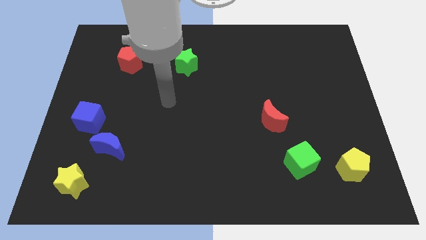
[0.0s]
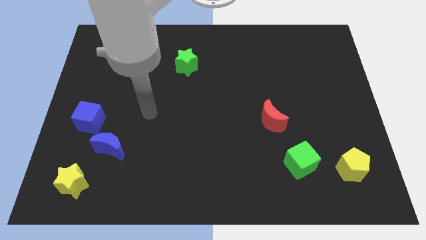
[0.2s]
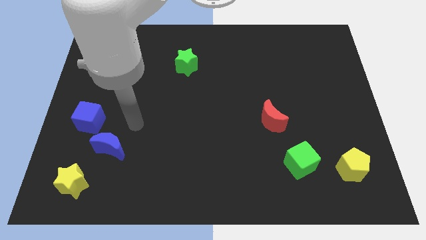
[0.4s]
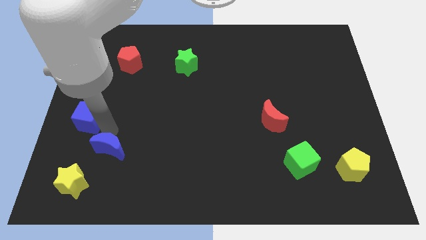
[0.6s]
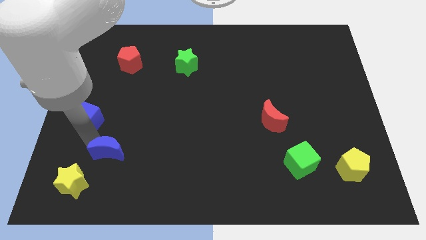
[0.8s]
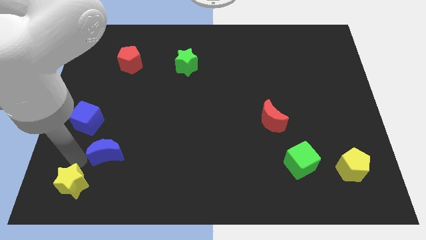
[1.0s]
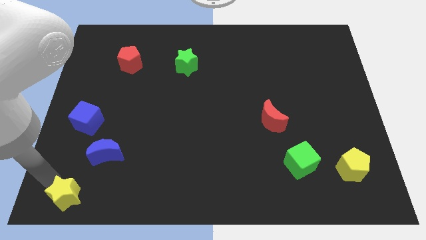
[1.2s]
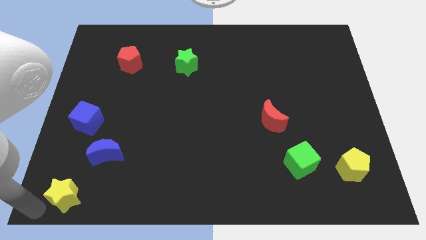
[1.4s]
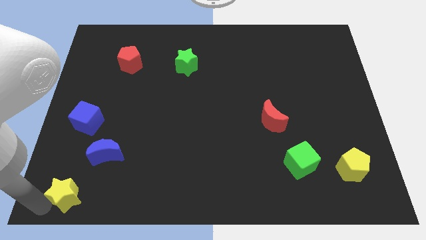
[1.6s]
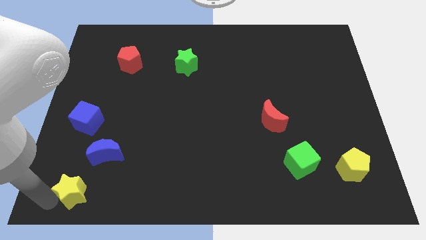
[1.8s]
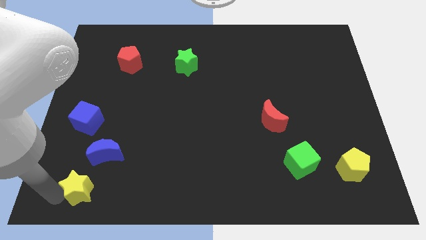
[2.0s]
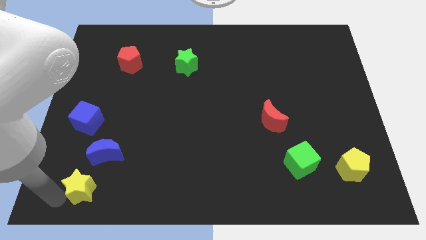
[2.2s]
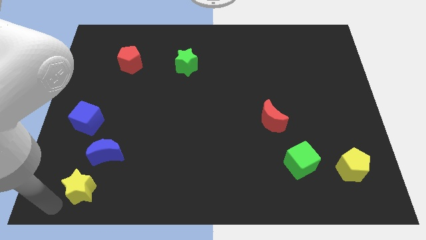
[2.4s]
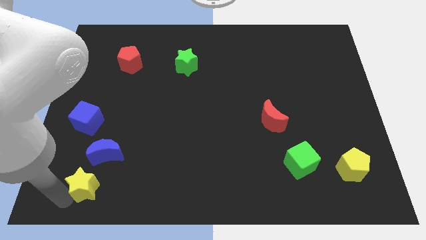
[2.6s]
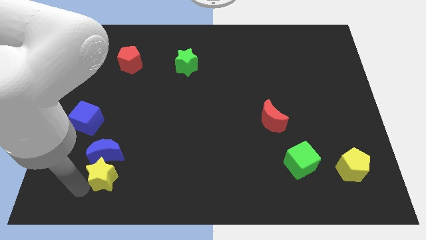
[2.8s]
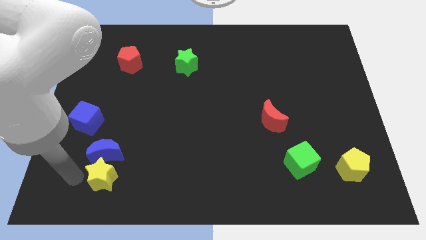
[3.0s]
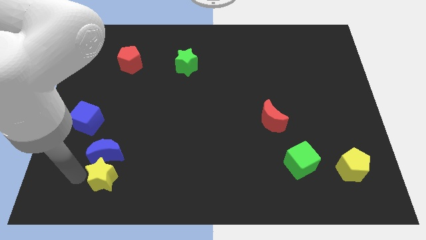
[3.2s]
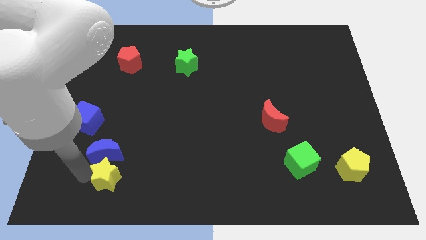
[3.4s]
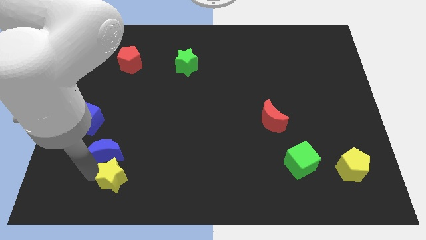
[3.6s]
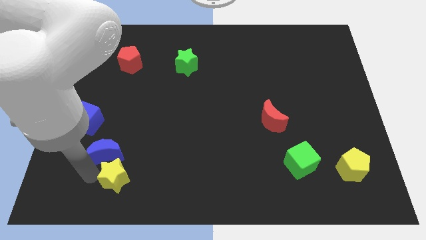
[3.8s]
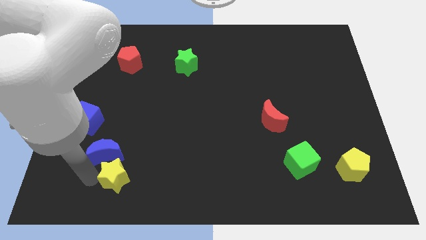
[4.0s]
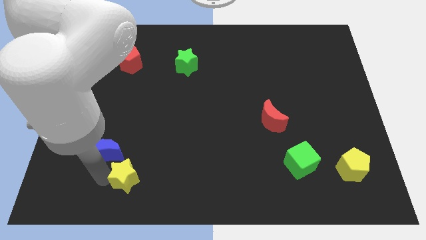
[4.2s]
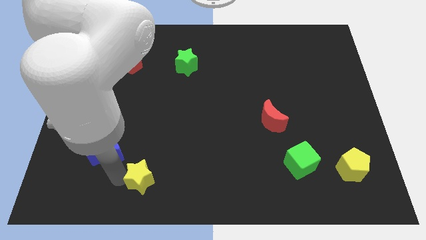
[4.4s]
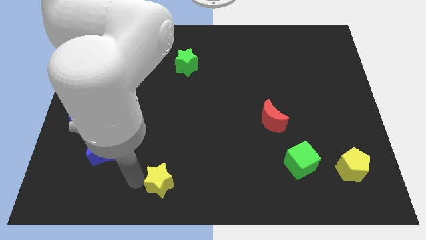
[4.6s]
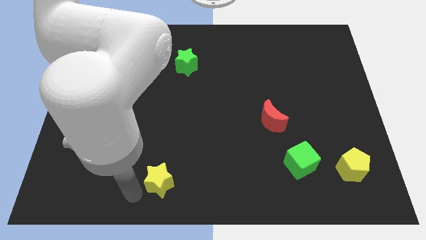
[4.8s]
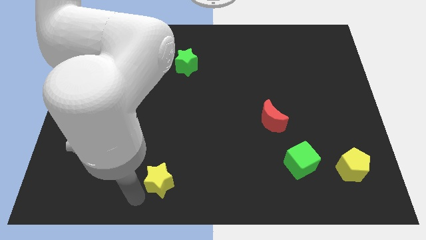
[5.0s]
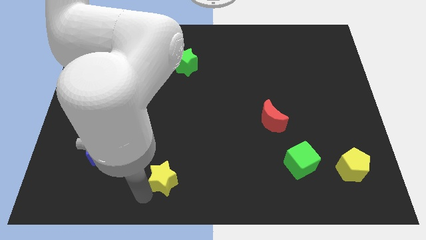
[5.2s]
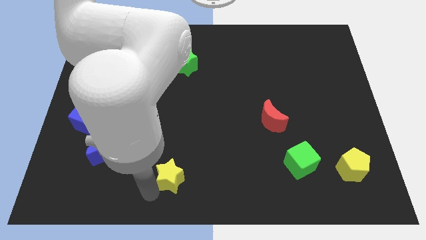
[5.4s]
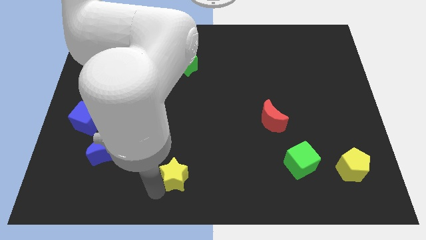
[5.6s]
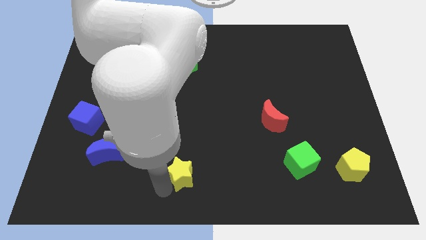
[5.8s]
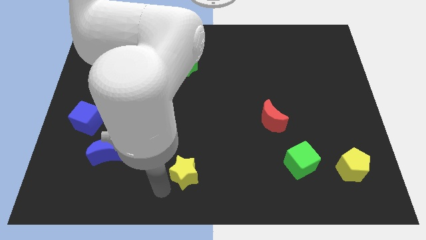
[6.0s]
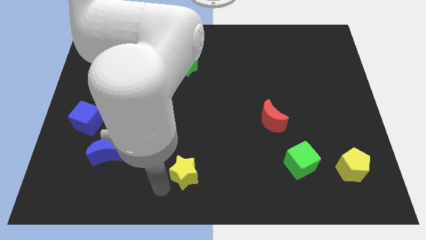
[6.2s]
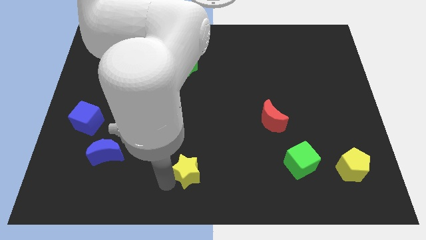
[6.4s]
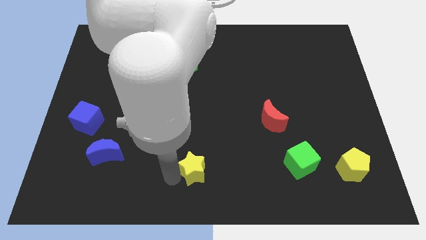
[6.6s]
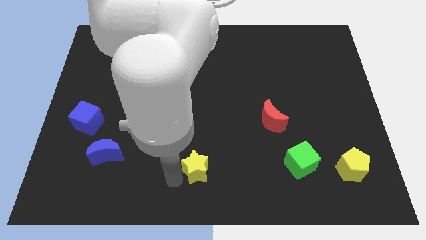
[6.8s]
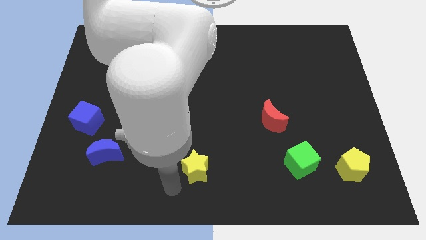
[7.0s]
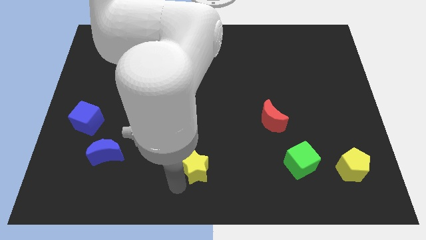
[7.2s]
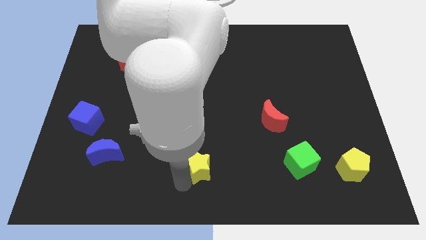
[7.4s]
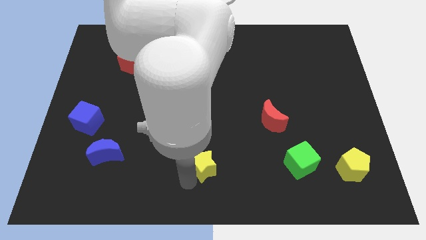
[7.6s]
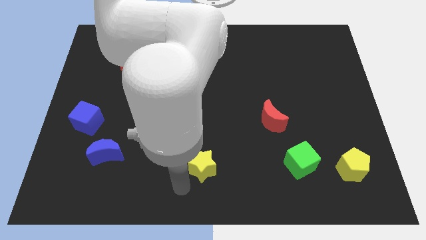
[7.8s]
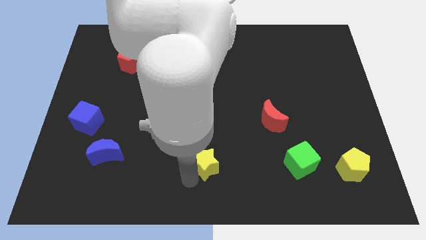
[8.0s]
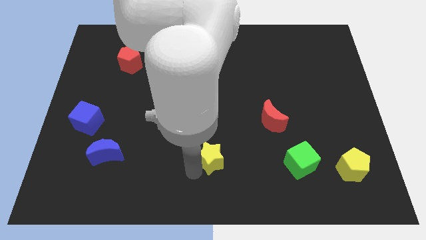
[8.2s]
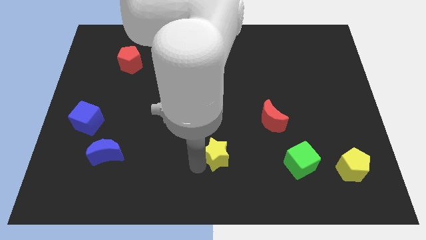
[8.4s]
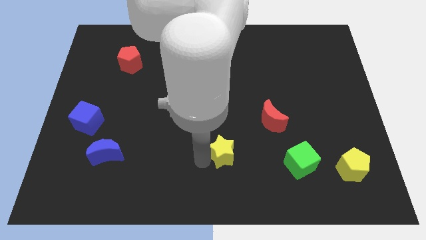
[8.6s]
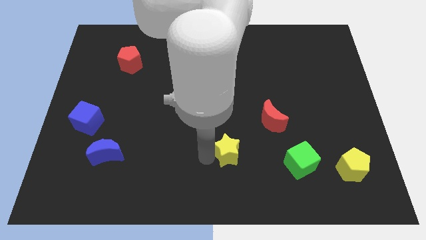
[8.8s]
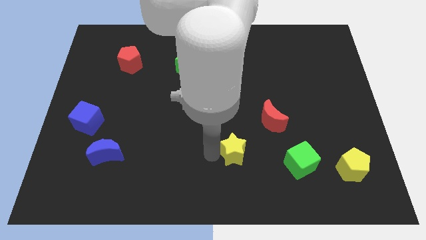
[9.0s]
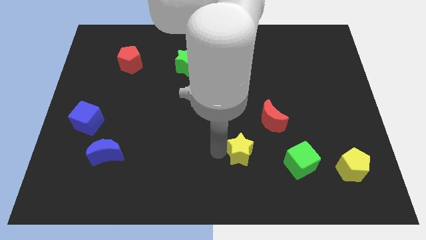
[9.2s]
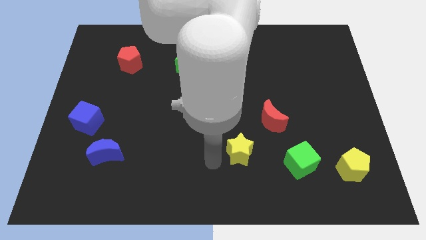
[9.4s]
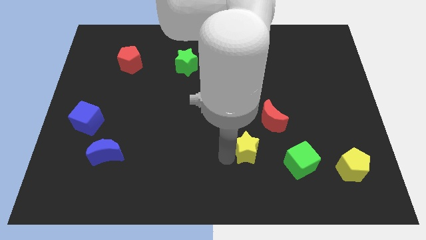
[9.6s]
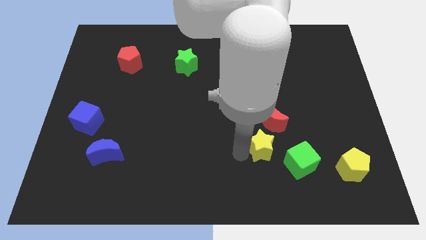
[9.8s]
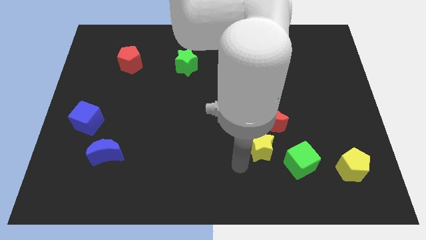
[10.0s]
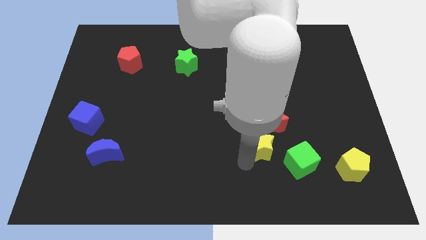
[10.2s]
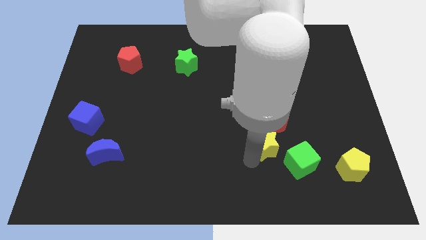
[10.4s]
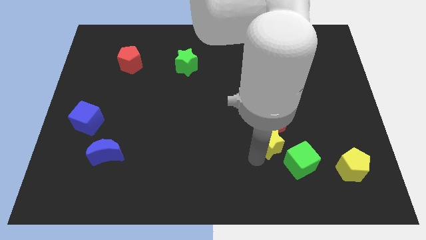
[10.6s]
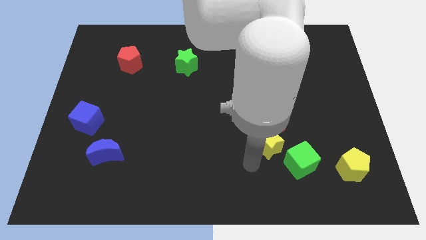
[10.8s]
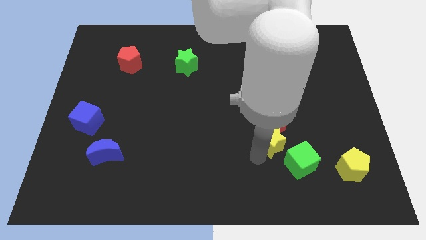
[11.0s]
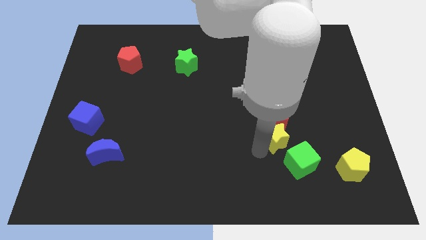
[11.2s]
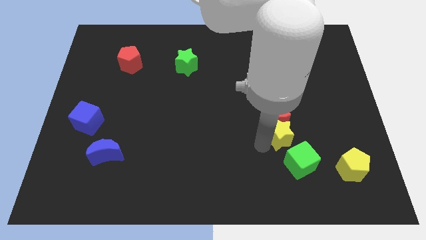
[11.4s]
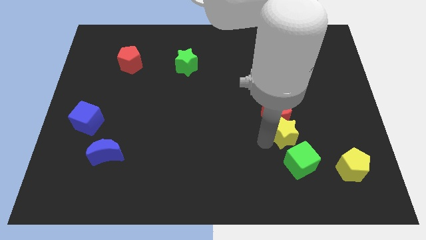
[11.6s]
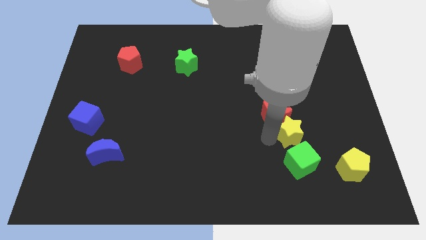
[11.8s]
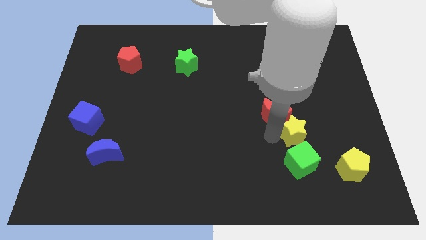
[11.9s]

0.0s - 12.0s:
move the yellow star to the right side of the red moon

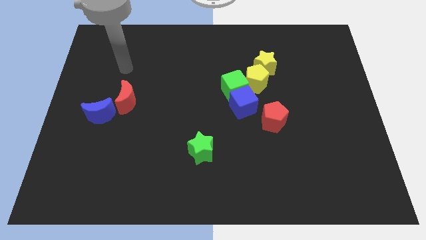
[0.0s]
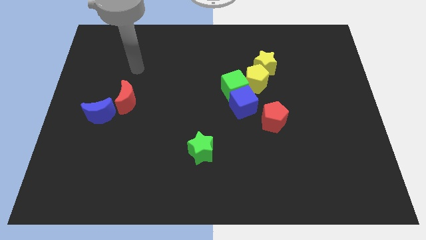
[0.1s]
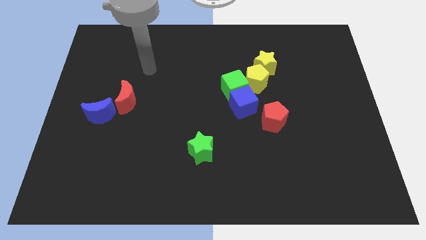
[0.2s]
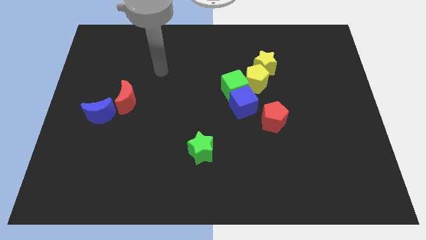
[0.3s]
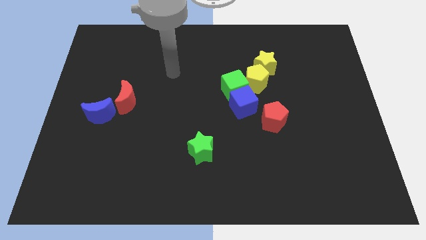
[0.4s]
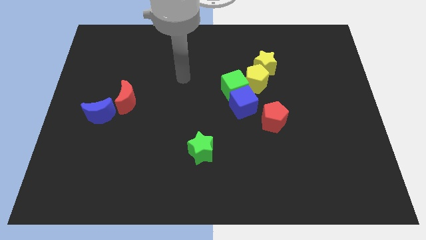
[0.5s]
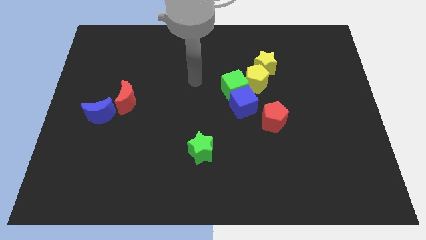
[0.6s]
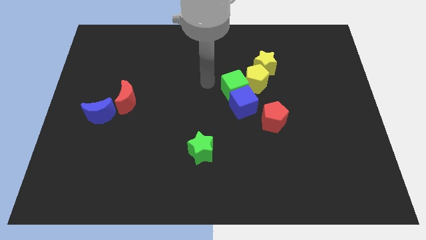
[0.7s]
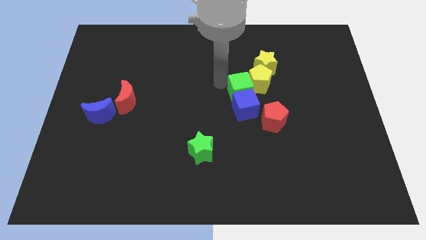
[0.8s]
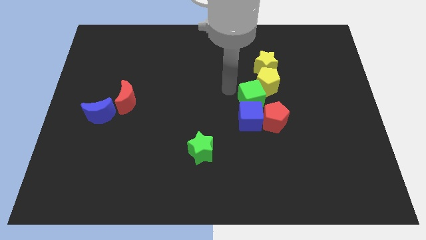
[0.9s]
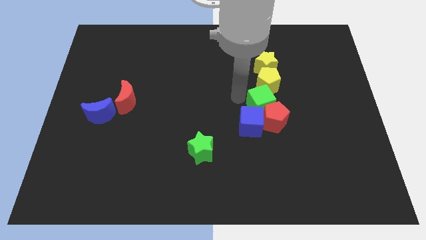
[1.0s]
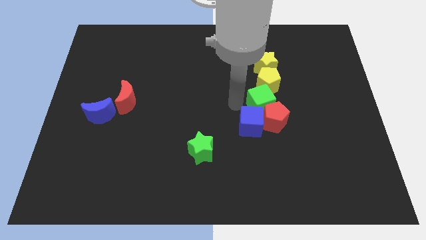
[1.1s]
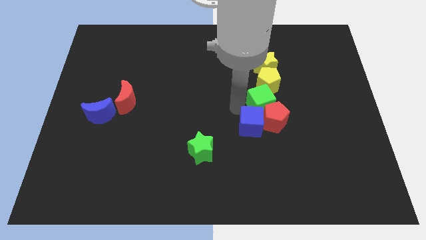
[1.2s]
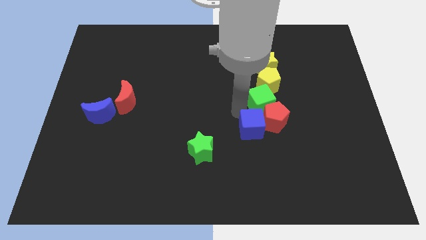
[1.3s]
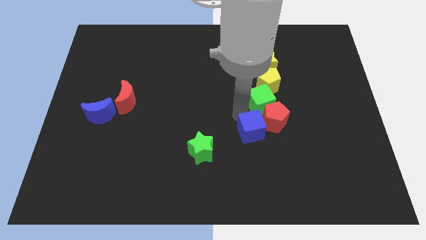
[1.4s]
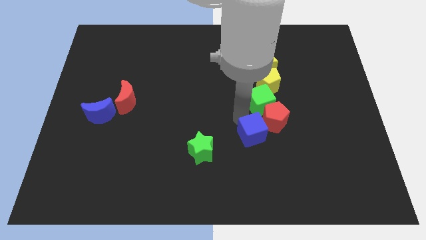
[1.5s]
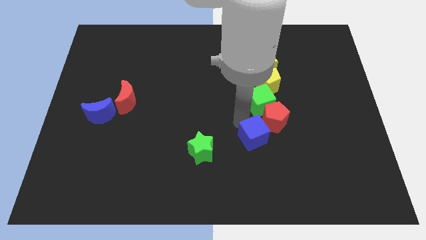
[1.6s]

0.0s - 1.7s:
push the blue cube to the bottom of the red pentagon
